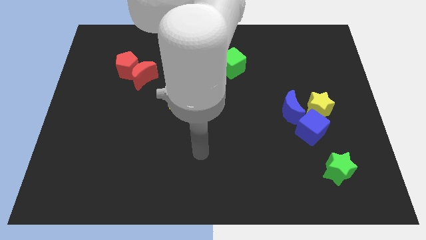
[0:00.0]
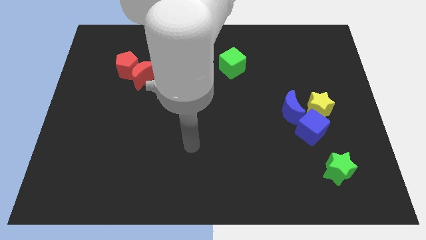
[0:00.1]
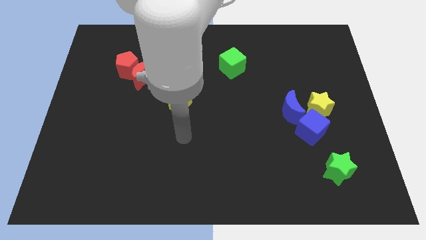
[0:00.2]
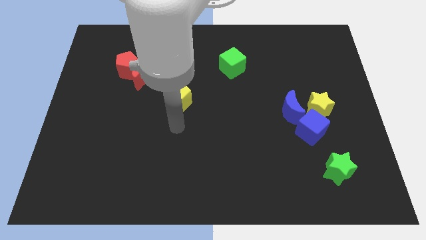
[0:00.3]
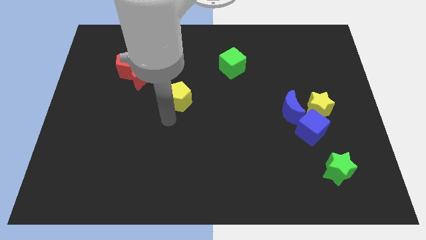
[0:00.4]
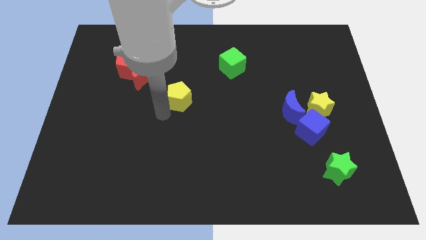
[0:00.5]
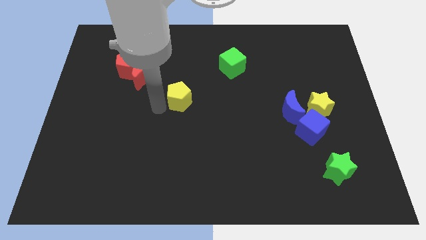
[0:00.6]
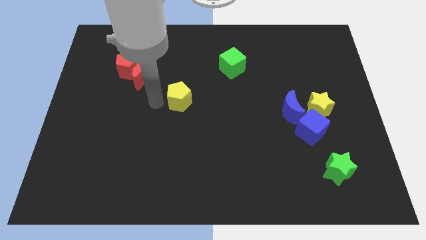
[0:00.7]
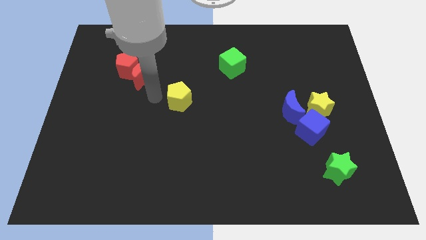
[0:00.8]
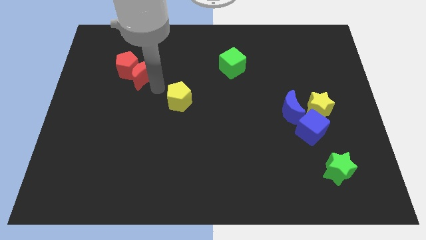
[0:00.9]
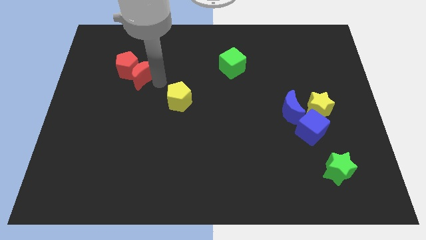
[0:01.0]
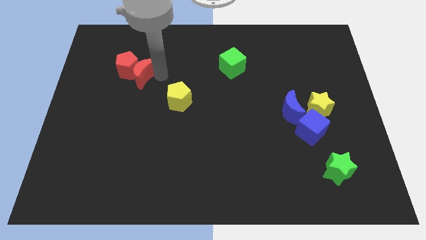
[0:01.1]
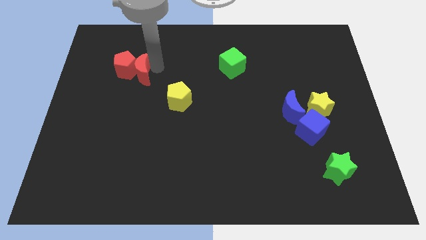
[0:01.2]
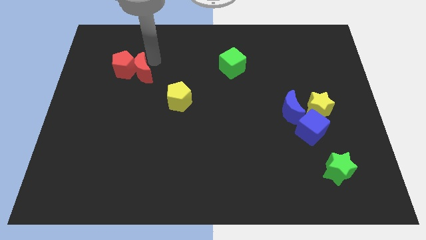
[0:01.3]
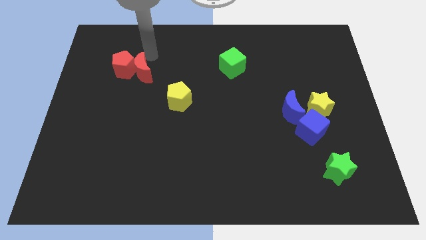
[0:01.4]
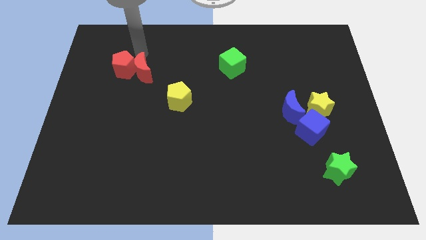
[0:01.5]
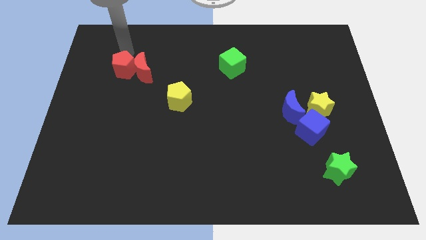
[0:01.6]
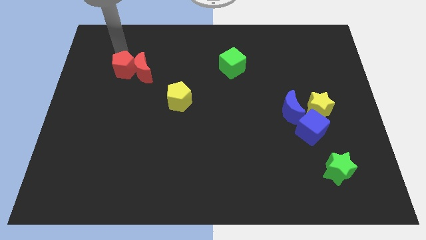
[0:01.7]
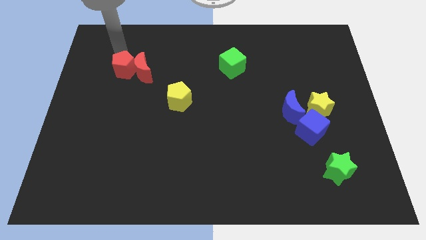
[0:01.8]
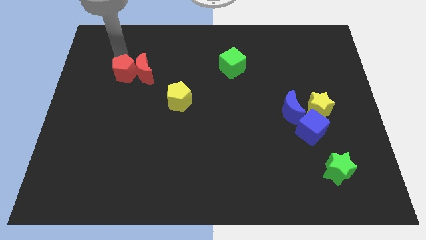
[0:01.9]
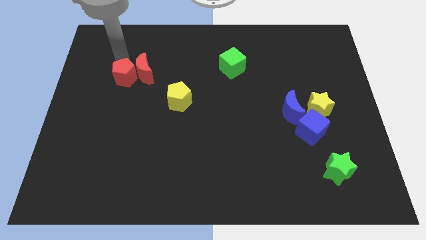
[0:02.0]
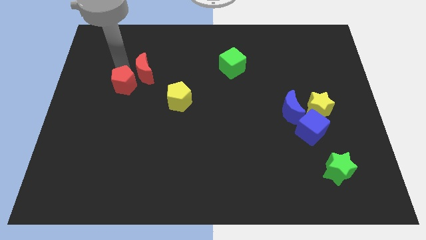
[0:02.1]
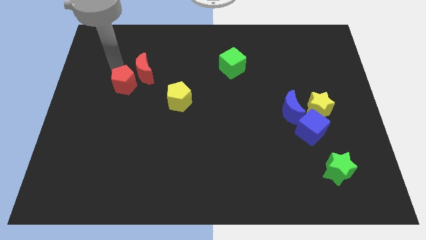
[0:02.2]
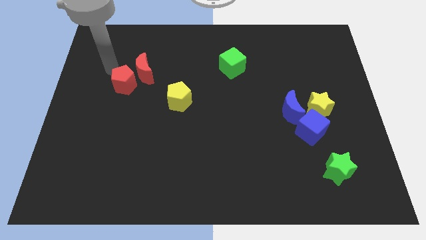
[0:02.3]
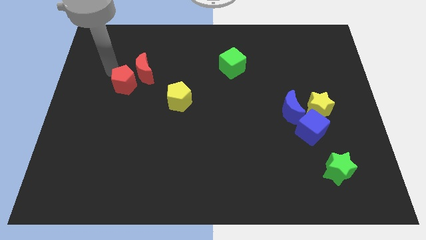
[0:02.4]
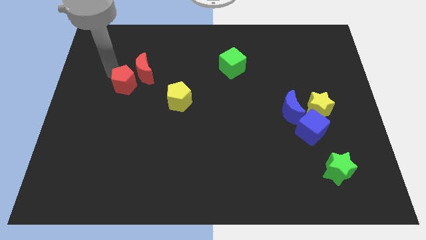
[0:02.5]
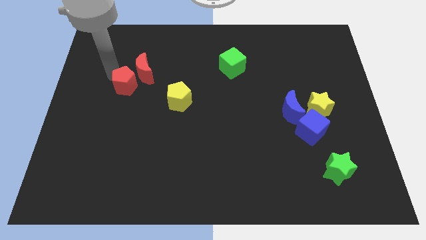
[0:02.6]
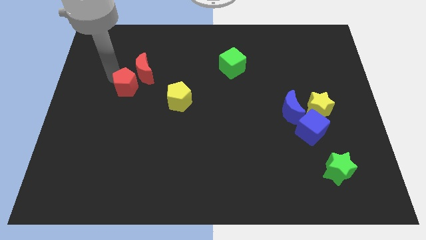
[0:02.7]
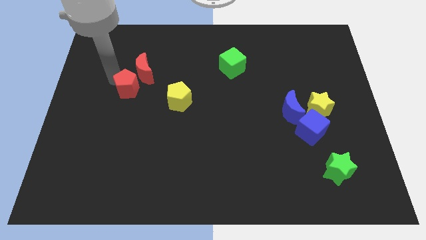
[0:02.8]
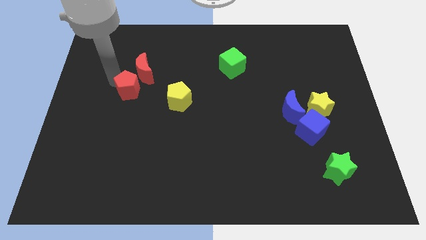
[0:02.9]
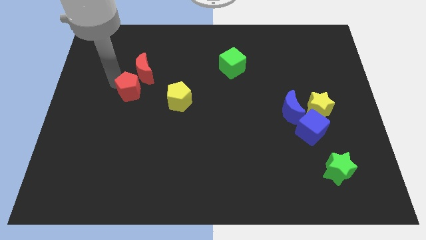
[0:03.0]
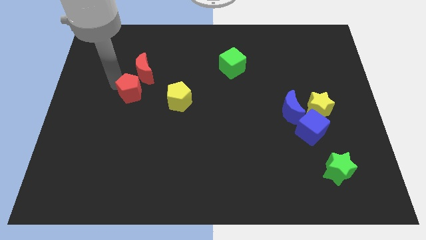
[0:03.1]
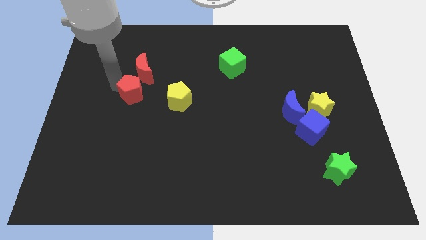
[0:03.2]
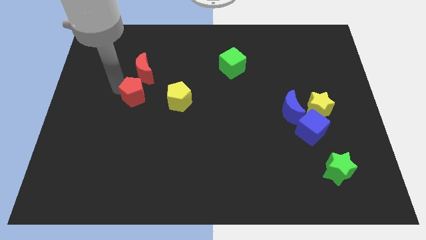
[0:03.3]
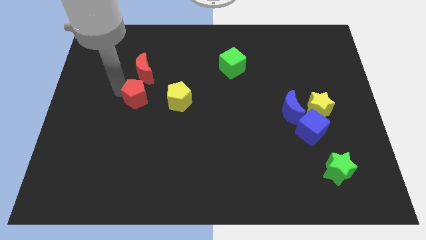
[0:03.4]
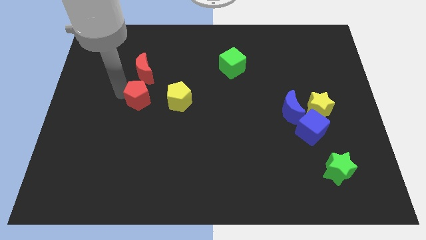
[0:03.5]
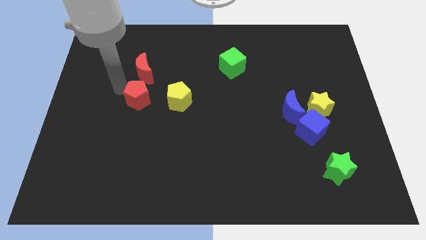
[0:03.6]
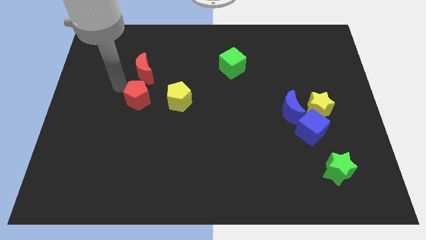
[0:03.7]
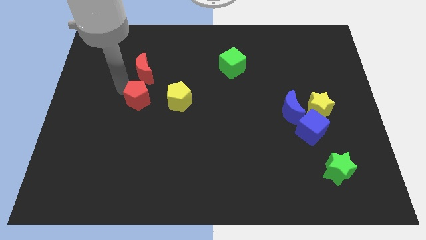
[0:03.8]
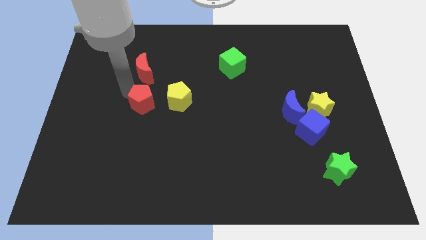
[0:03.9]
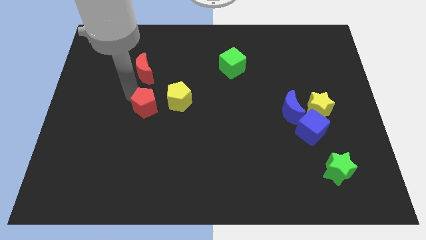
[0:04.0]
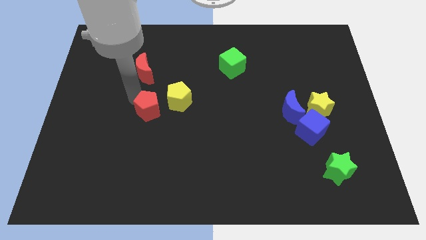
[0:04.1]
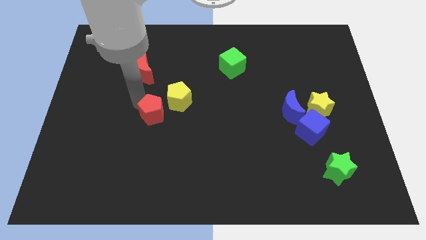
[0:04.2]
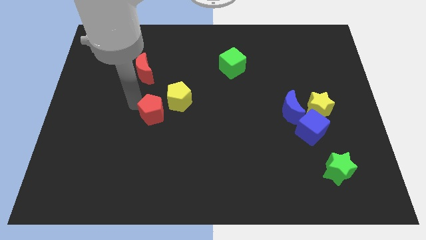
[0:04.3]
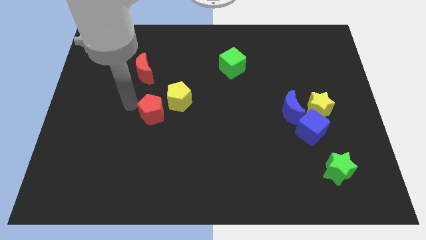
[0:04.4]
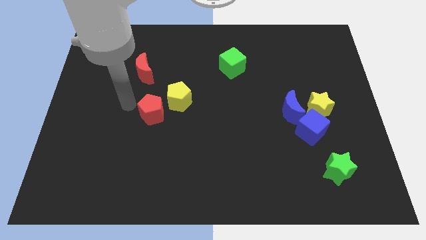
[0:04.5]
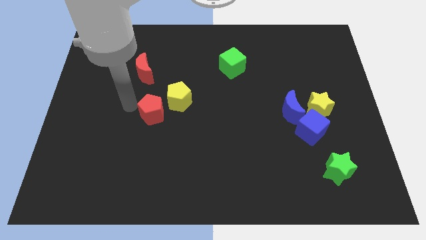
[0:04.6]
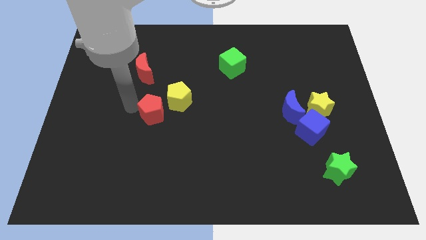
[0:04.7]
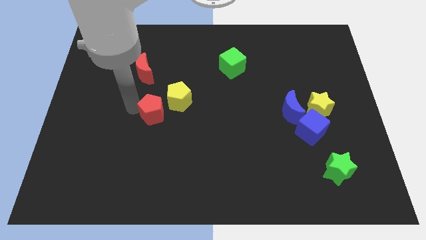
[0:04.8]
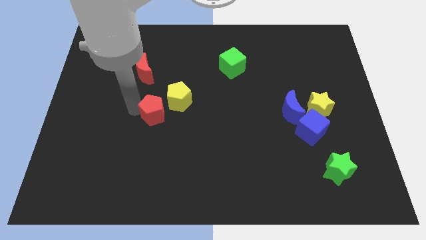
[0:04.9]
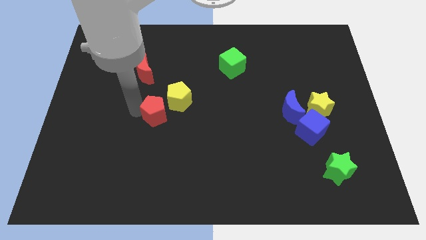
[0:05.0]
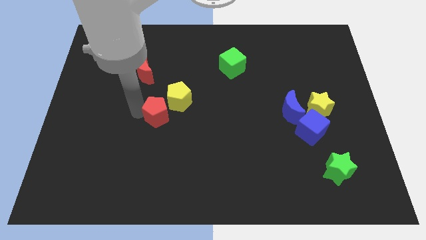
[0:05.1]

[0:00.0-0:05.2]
put the red pentagon below the yellow pentagon

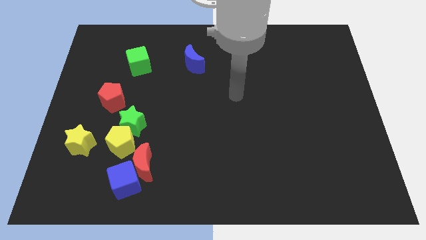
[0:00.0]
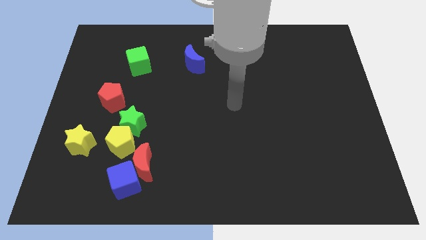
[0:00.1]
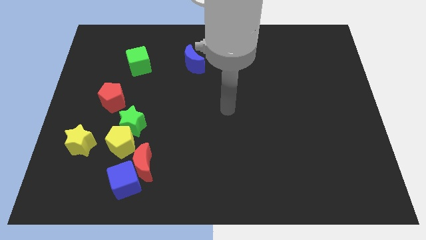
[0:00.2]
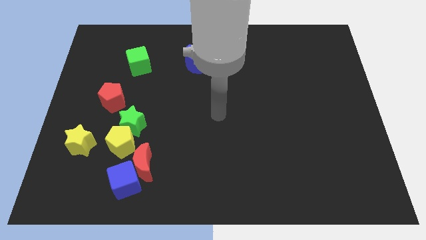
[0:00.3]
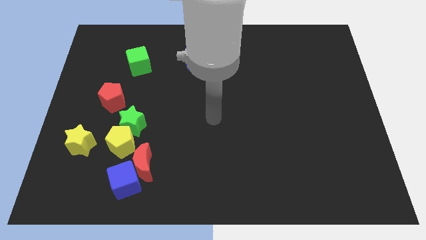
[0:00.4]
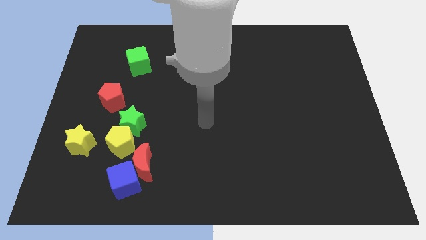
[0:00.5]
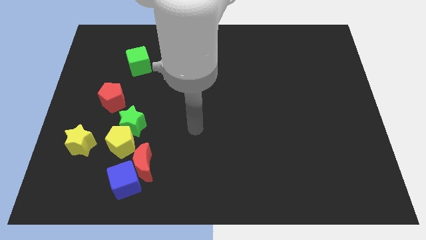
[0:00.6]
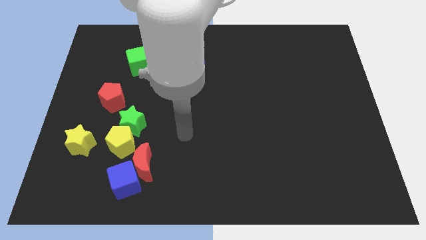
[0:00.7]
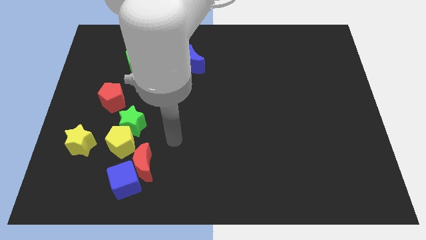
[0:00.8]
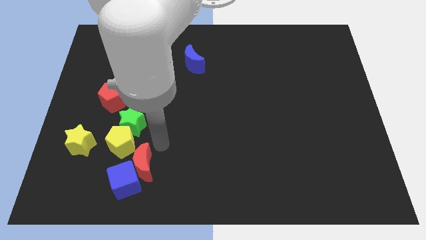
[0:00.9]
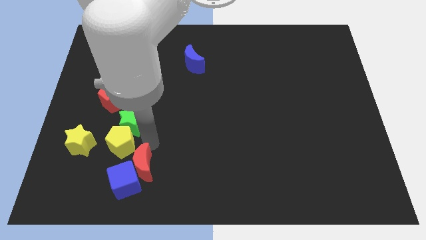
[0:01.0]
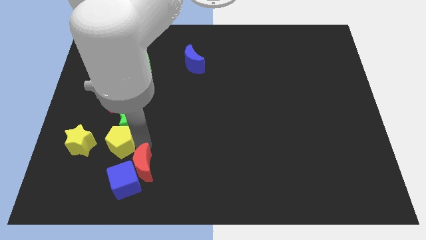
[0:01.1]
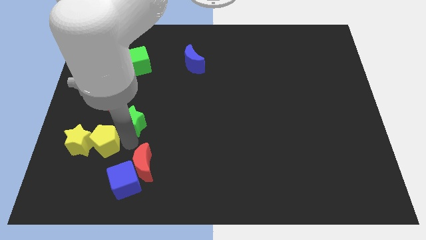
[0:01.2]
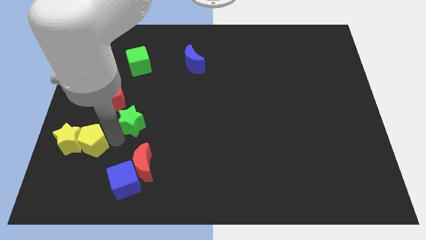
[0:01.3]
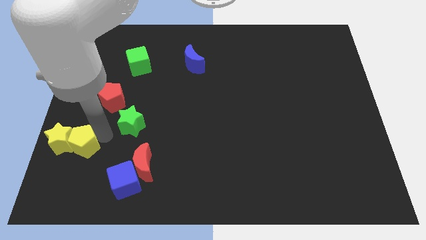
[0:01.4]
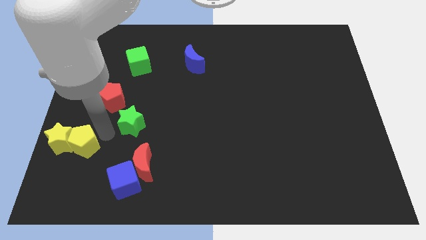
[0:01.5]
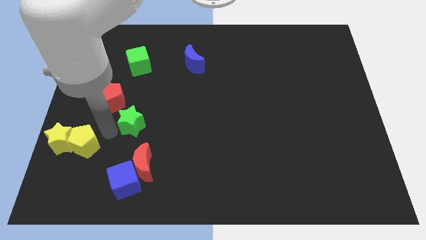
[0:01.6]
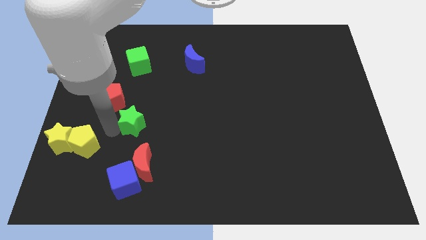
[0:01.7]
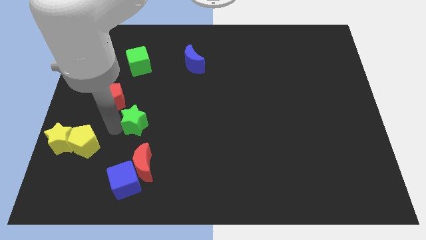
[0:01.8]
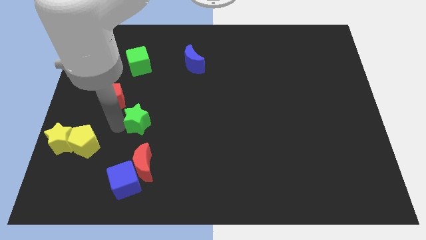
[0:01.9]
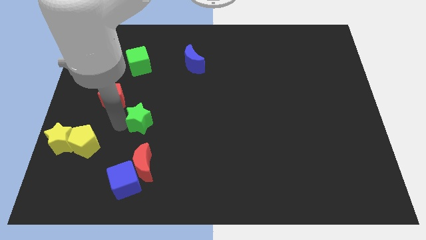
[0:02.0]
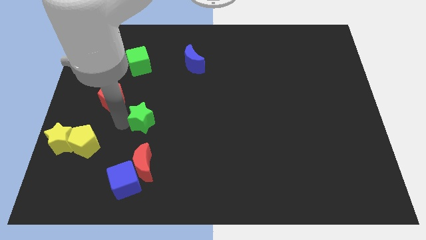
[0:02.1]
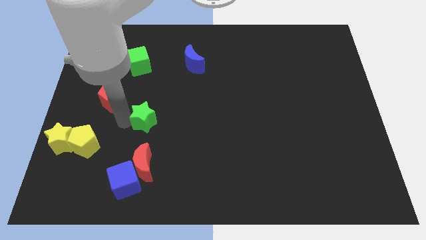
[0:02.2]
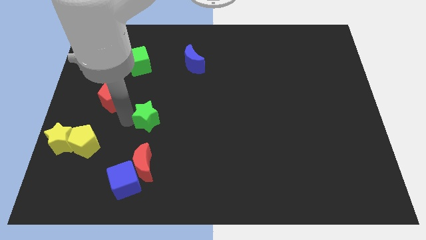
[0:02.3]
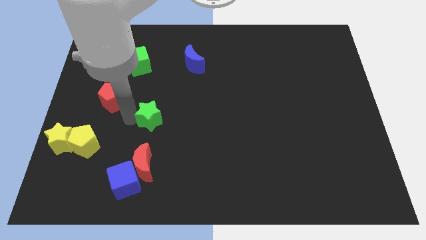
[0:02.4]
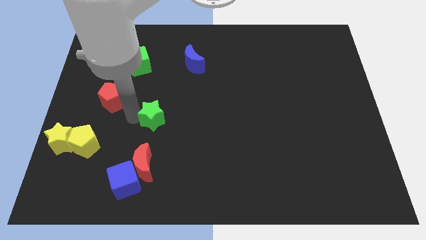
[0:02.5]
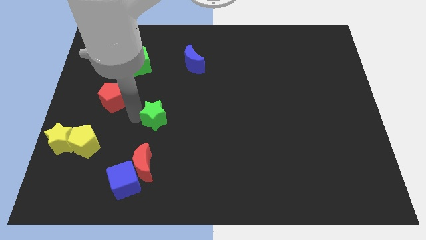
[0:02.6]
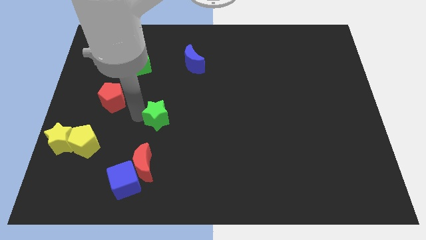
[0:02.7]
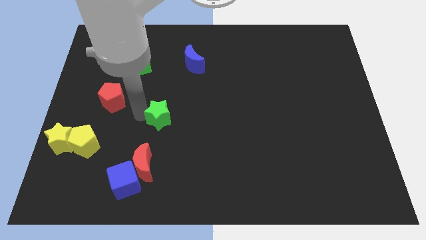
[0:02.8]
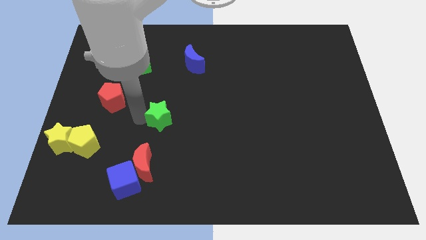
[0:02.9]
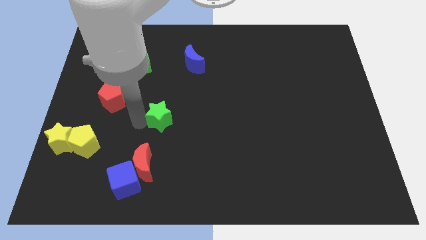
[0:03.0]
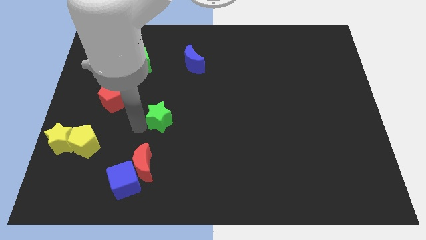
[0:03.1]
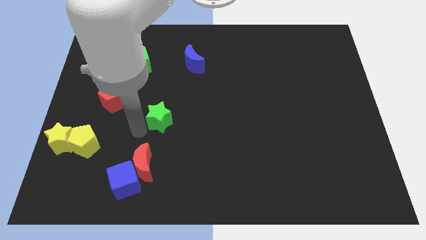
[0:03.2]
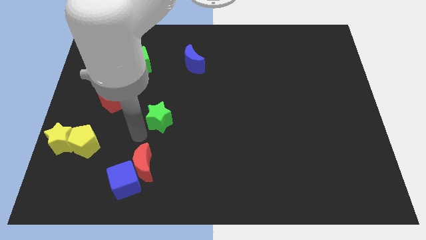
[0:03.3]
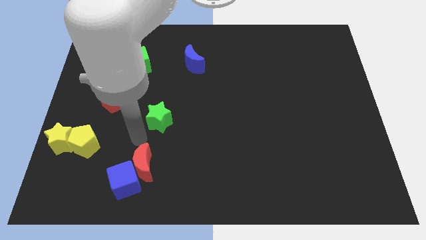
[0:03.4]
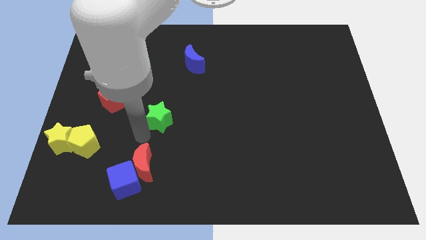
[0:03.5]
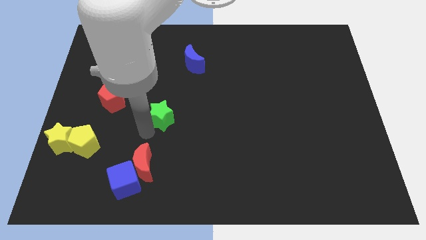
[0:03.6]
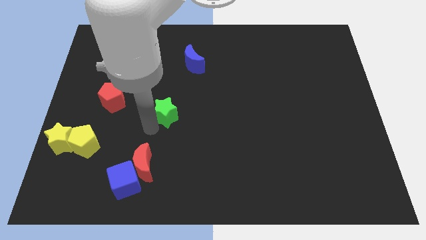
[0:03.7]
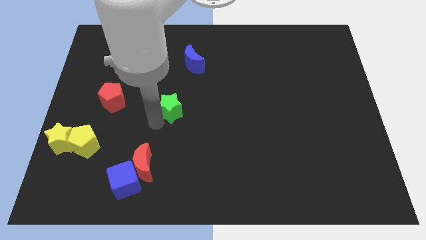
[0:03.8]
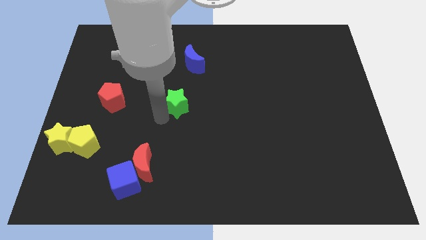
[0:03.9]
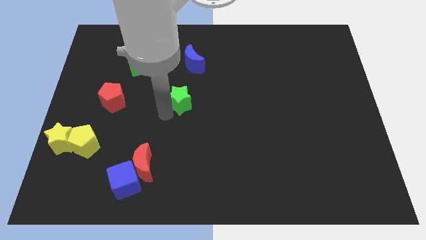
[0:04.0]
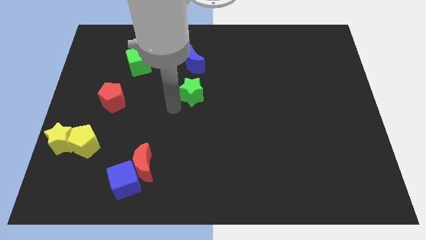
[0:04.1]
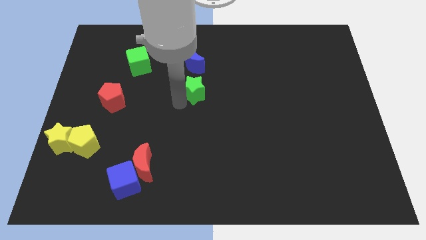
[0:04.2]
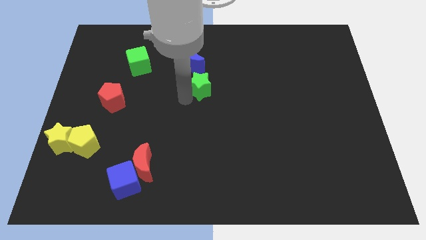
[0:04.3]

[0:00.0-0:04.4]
put the green star diagonally down and to the right of the blue moon
